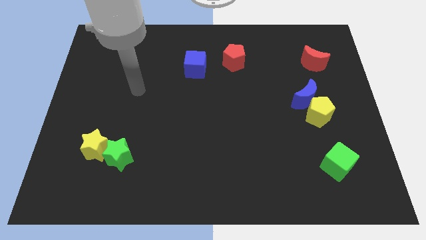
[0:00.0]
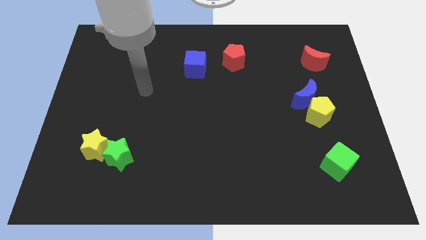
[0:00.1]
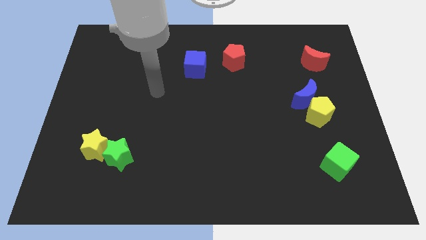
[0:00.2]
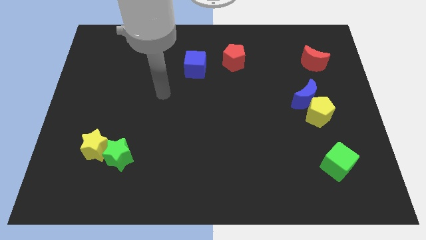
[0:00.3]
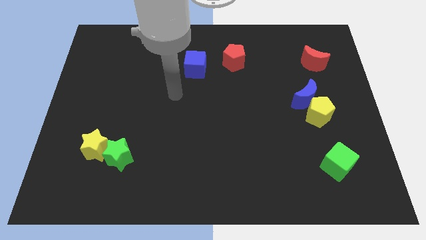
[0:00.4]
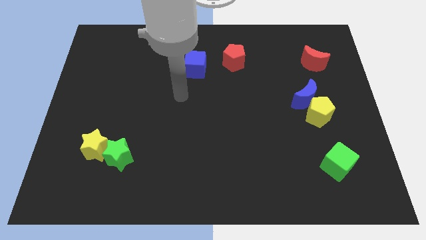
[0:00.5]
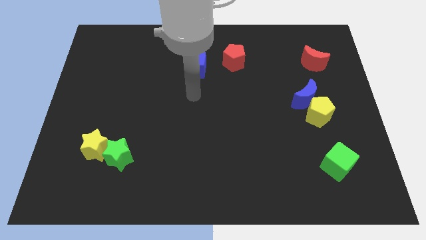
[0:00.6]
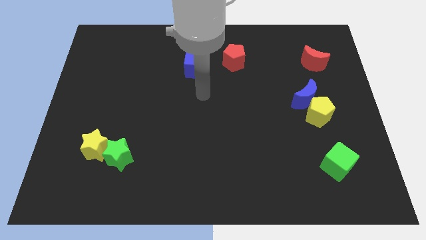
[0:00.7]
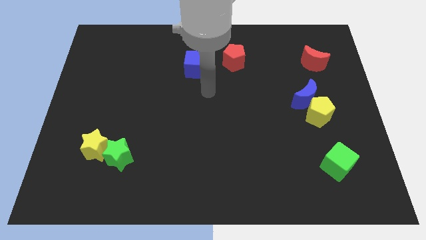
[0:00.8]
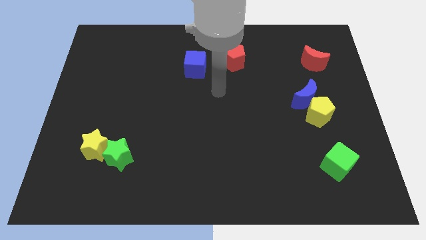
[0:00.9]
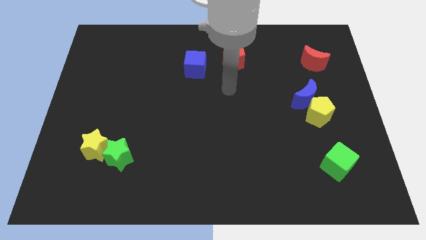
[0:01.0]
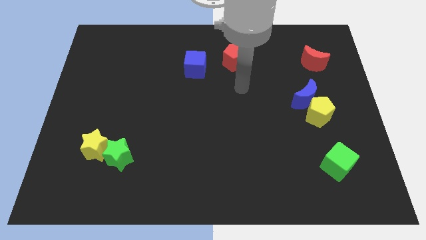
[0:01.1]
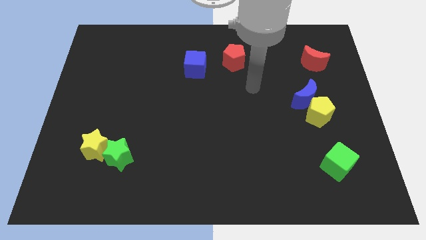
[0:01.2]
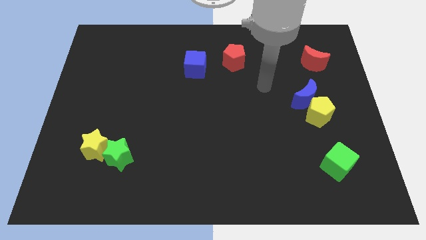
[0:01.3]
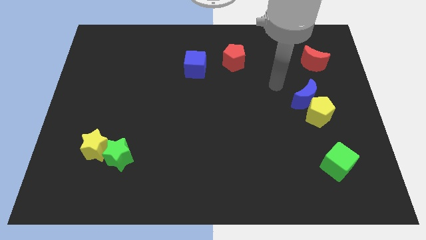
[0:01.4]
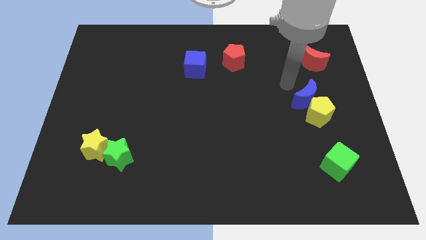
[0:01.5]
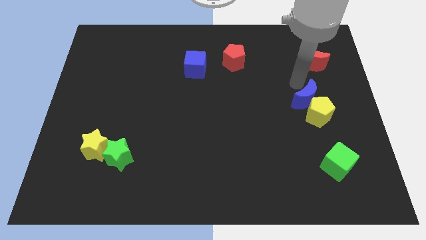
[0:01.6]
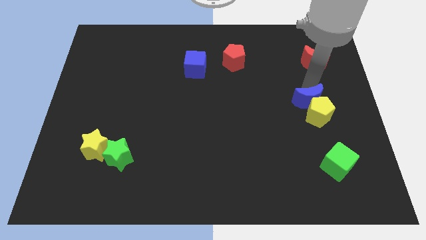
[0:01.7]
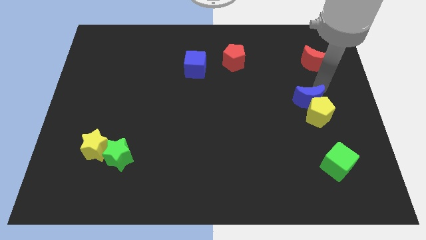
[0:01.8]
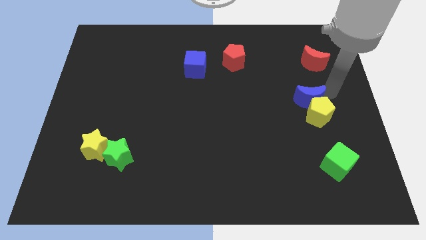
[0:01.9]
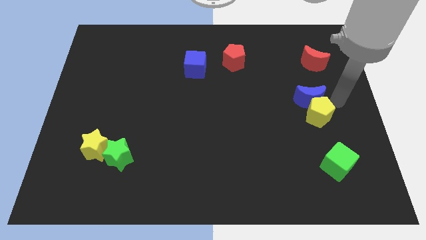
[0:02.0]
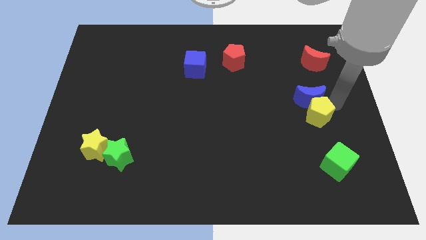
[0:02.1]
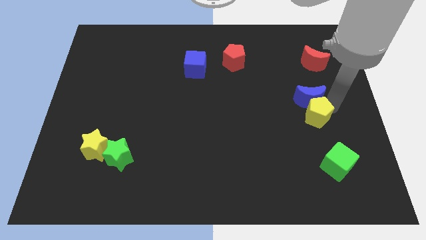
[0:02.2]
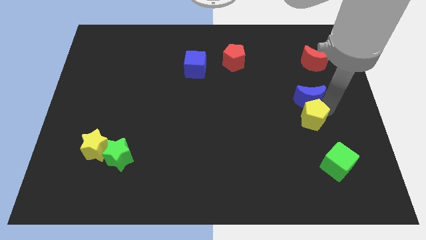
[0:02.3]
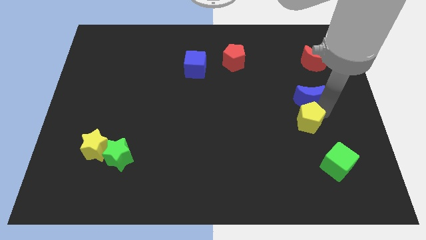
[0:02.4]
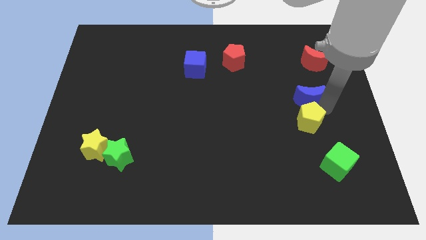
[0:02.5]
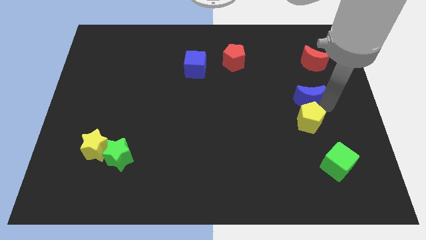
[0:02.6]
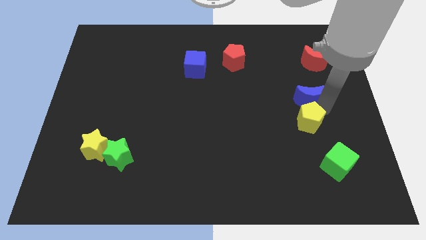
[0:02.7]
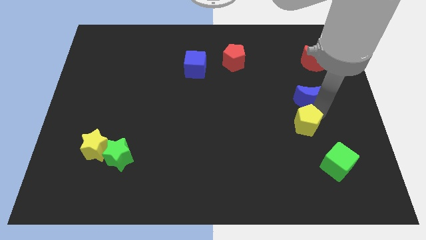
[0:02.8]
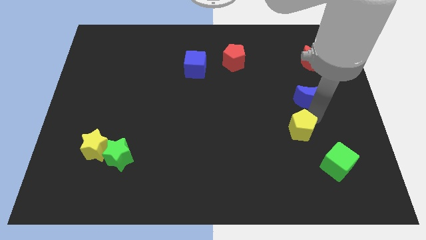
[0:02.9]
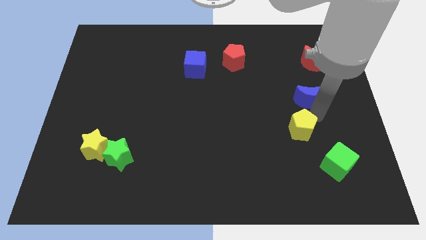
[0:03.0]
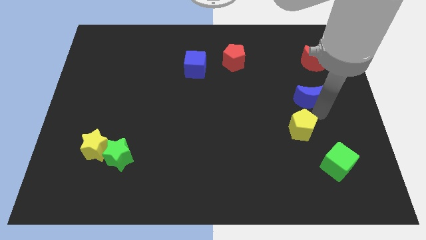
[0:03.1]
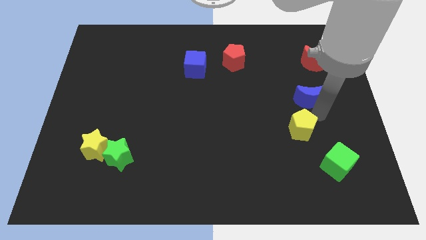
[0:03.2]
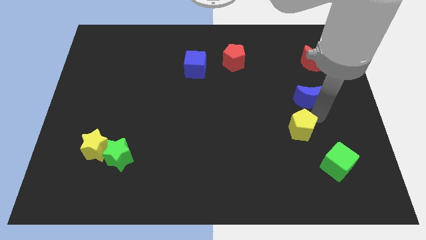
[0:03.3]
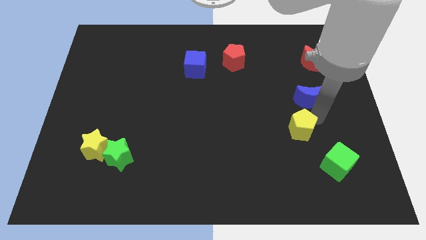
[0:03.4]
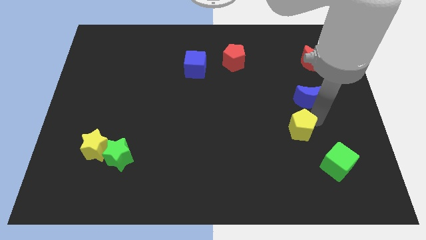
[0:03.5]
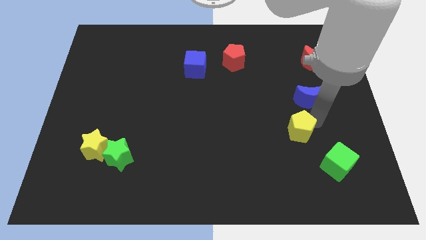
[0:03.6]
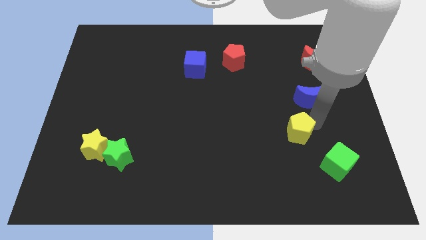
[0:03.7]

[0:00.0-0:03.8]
move the yellow pentagon a little down and to the left diagonally

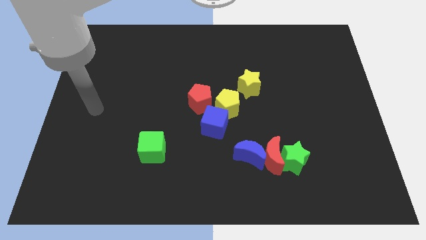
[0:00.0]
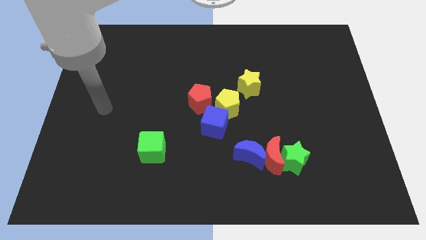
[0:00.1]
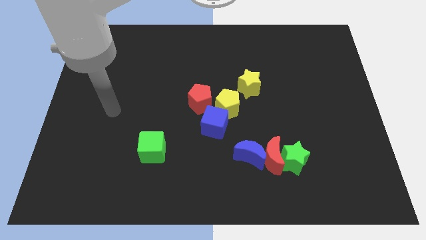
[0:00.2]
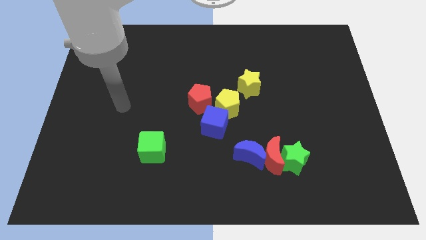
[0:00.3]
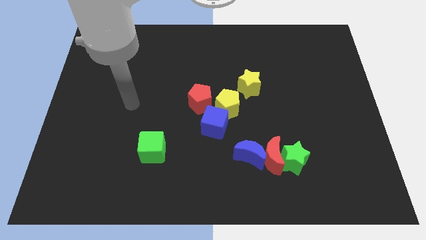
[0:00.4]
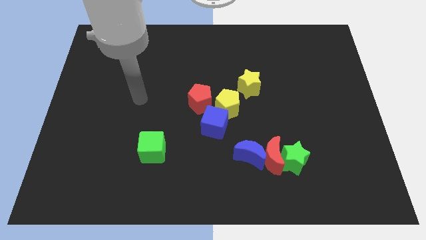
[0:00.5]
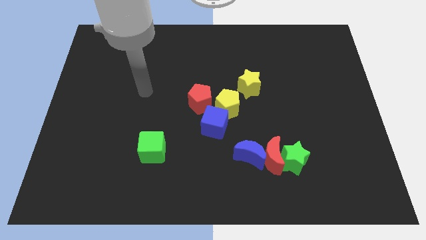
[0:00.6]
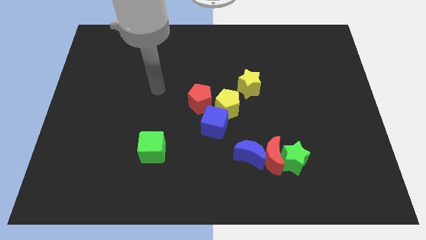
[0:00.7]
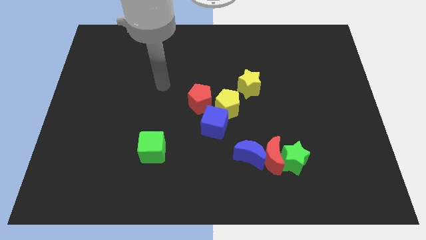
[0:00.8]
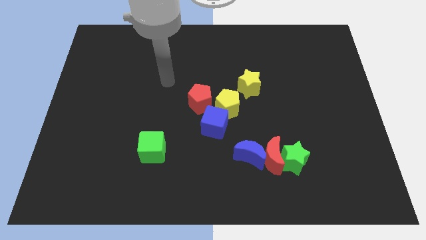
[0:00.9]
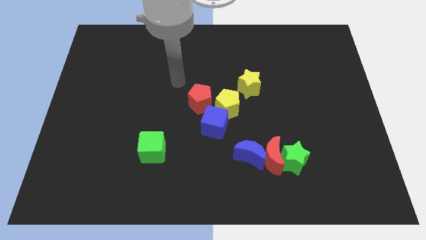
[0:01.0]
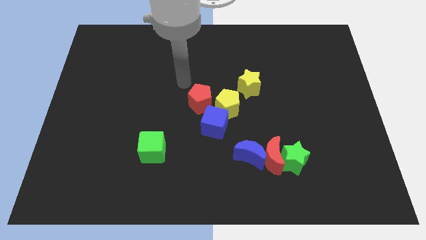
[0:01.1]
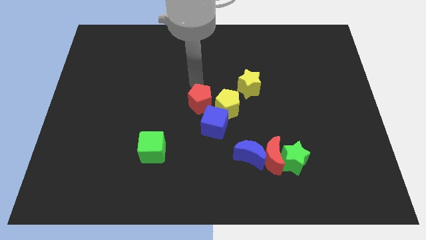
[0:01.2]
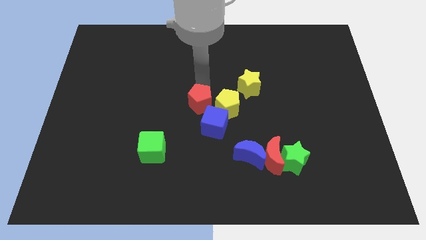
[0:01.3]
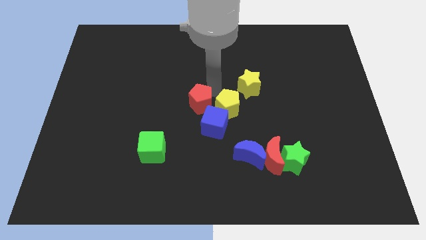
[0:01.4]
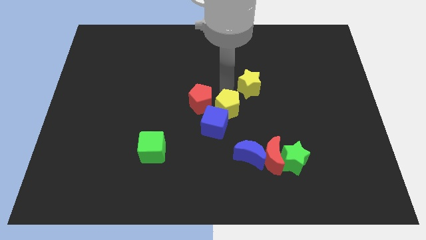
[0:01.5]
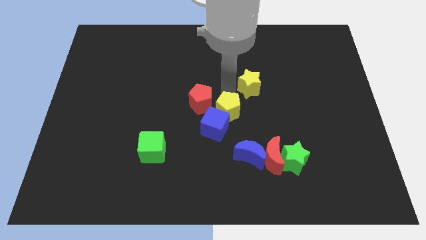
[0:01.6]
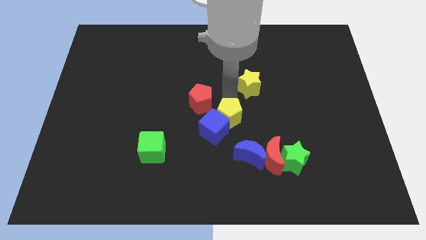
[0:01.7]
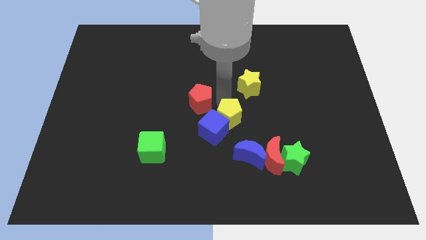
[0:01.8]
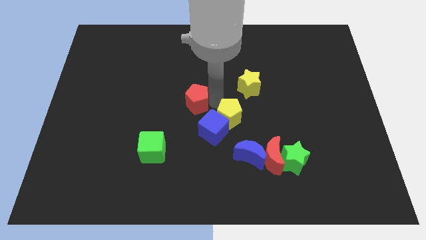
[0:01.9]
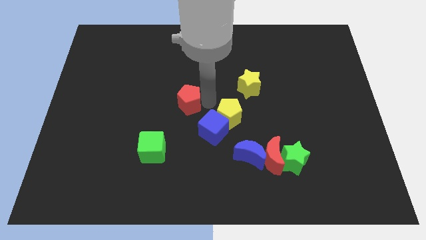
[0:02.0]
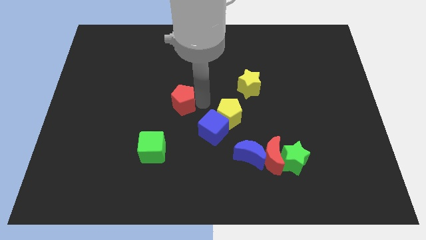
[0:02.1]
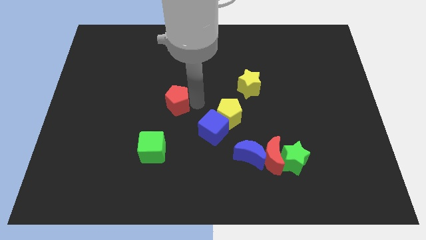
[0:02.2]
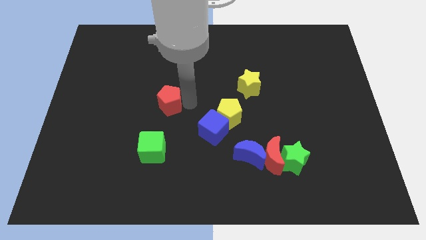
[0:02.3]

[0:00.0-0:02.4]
slide the red pentagon somewhat to the left

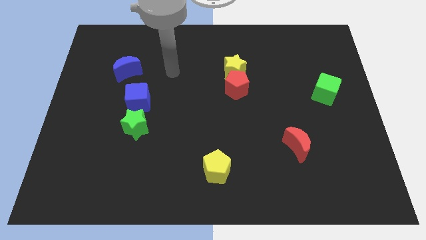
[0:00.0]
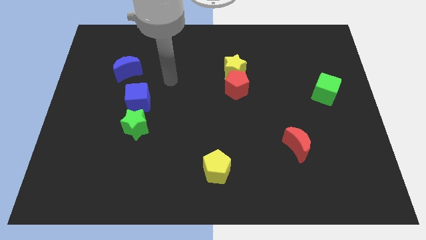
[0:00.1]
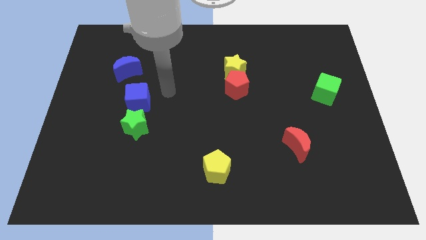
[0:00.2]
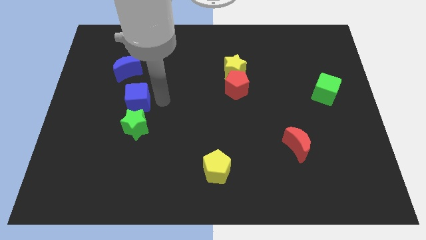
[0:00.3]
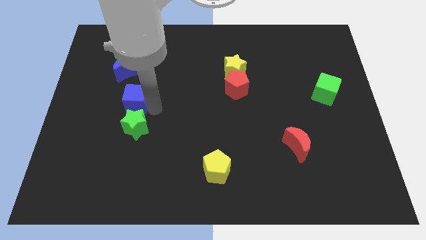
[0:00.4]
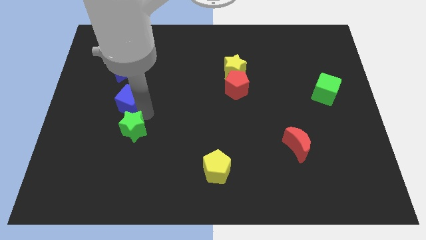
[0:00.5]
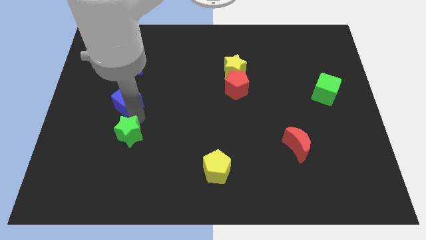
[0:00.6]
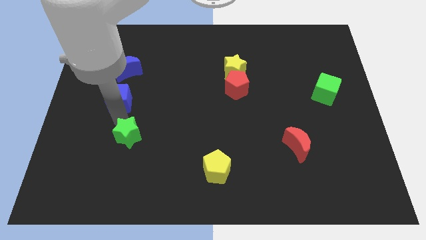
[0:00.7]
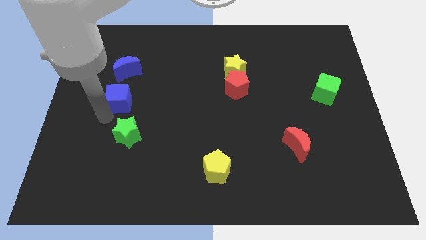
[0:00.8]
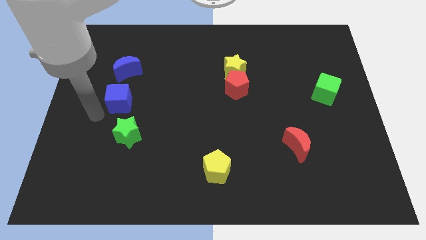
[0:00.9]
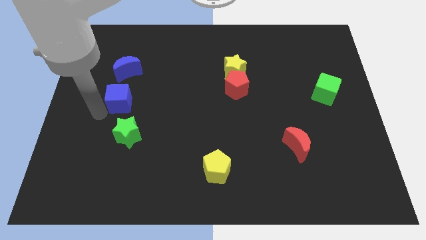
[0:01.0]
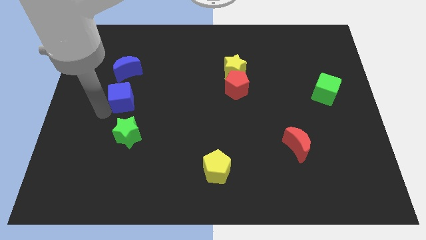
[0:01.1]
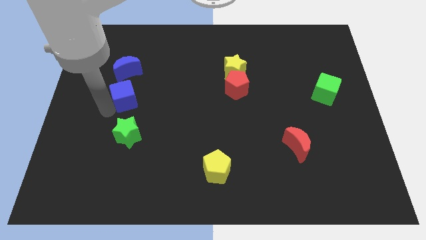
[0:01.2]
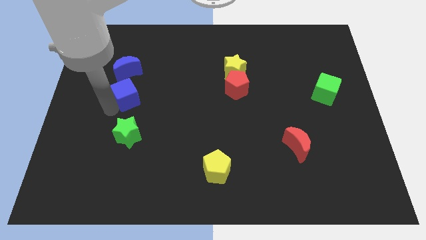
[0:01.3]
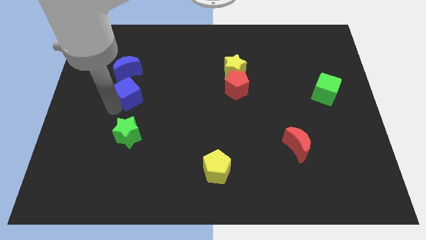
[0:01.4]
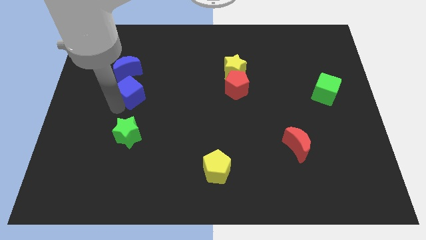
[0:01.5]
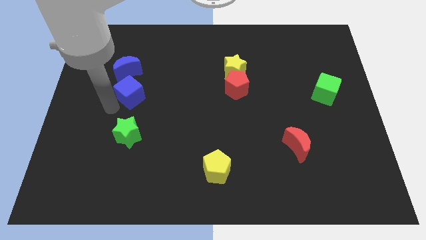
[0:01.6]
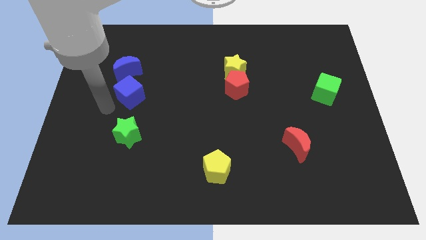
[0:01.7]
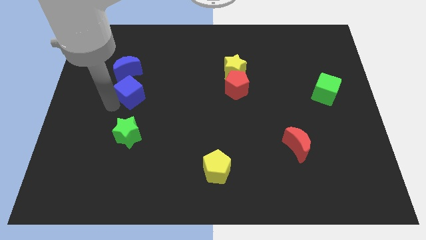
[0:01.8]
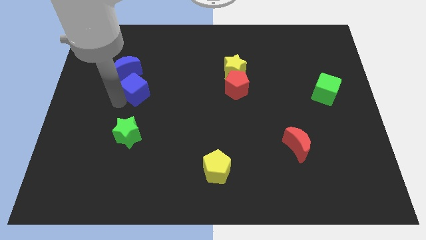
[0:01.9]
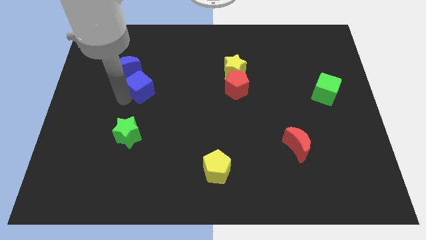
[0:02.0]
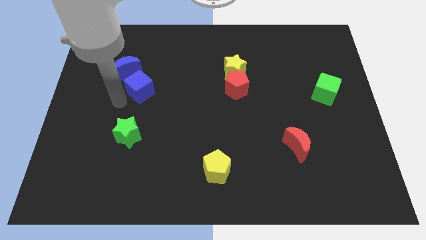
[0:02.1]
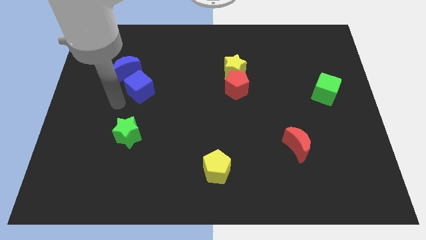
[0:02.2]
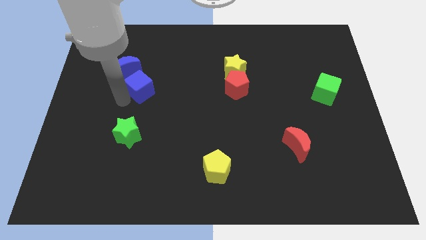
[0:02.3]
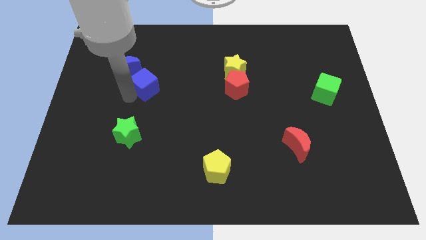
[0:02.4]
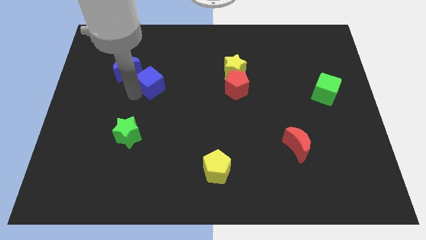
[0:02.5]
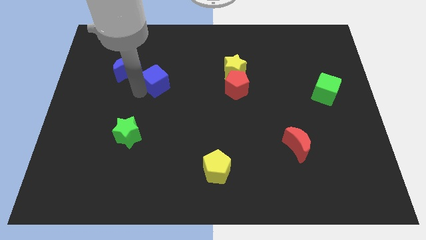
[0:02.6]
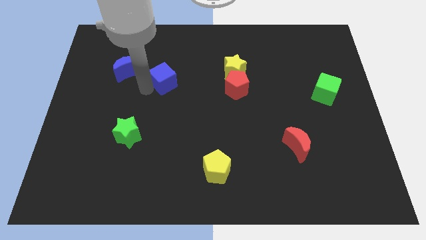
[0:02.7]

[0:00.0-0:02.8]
slide the blue cube somewhat upwards and then to the right
